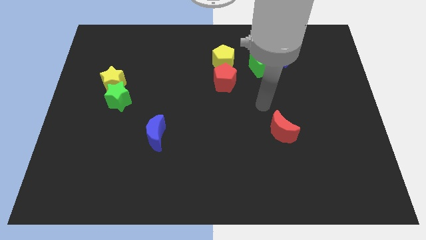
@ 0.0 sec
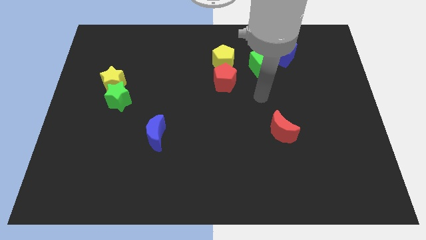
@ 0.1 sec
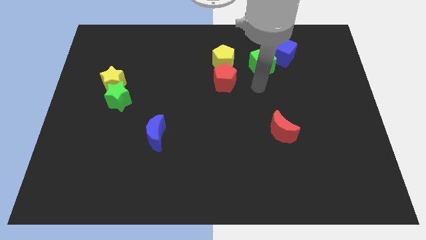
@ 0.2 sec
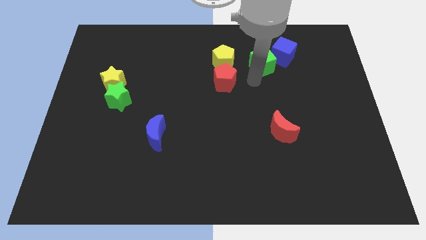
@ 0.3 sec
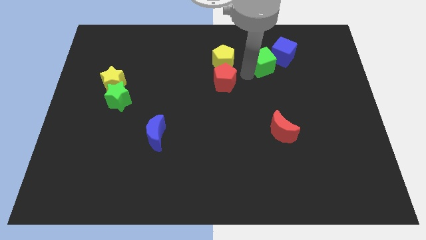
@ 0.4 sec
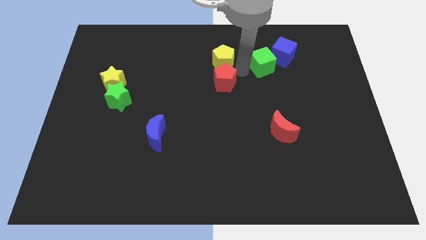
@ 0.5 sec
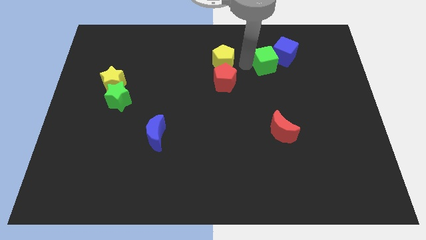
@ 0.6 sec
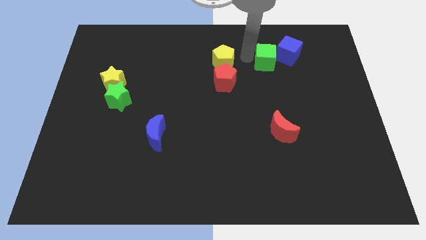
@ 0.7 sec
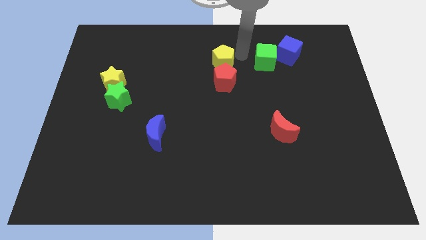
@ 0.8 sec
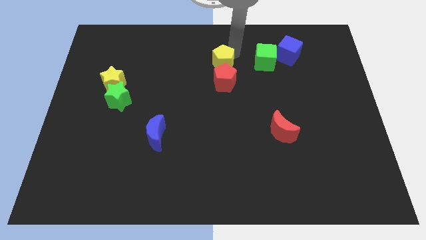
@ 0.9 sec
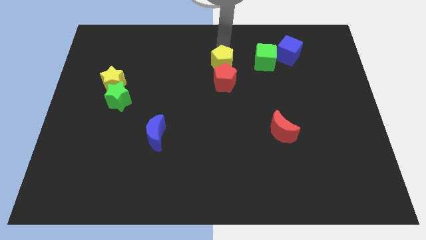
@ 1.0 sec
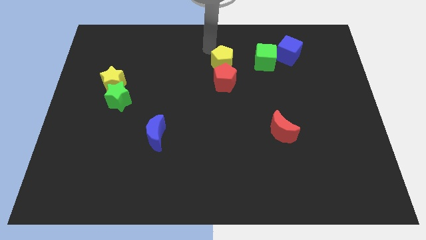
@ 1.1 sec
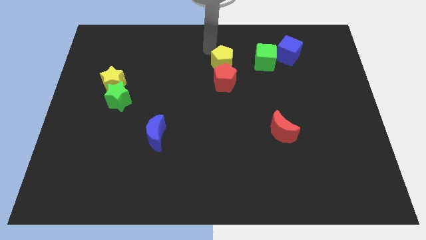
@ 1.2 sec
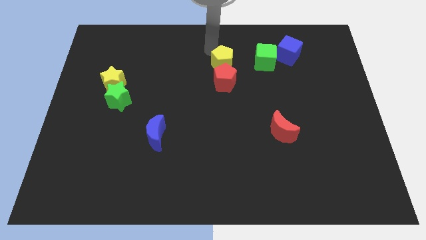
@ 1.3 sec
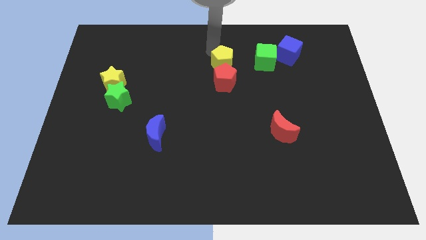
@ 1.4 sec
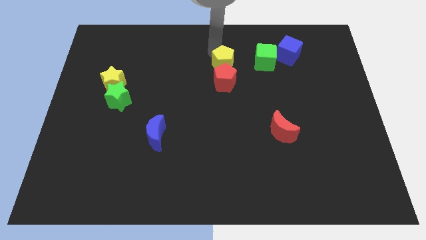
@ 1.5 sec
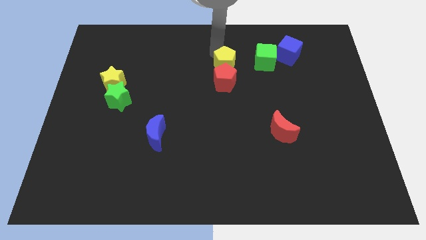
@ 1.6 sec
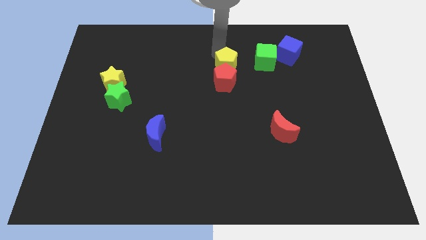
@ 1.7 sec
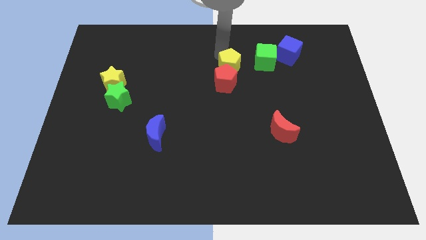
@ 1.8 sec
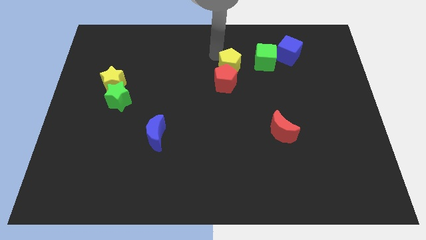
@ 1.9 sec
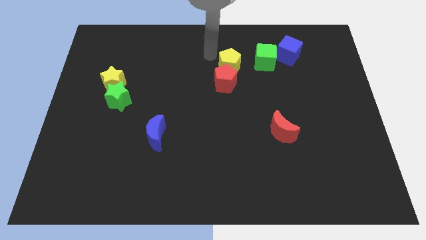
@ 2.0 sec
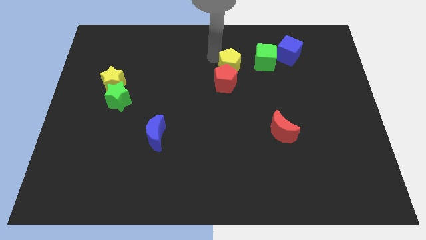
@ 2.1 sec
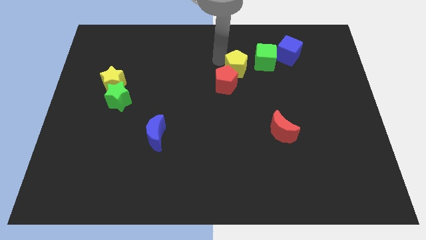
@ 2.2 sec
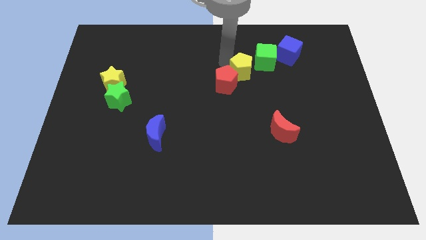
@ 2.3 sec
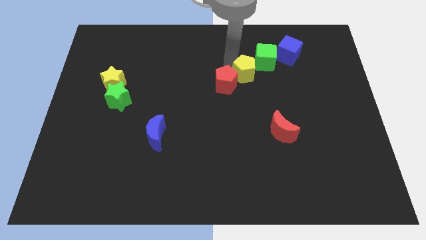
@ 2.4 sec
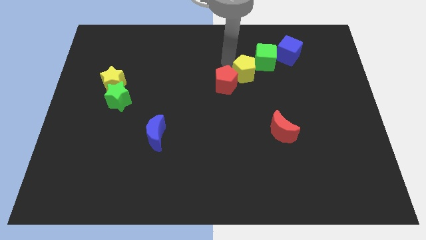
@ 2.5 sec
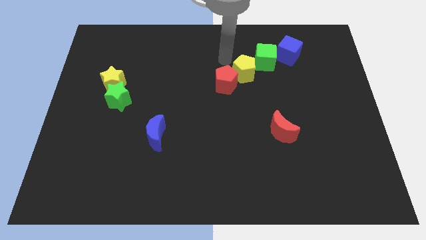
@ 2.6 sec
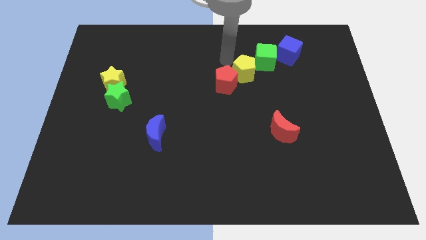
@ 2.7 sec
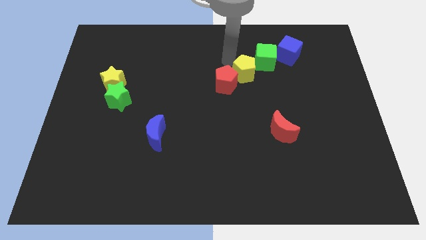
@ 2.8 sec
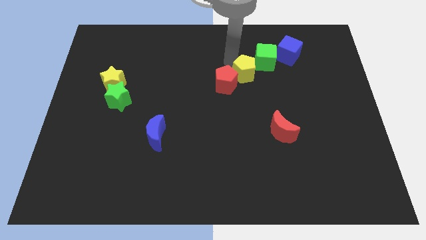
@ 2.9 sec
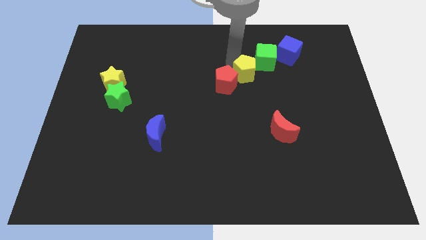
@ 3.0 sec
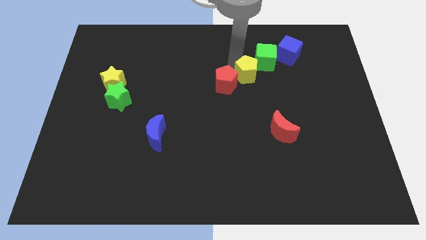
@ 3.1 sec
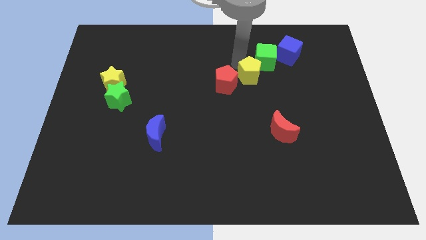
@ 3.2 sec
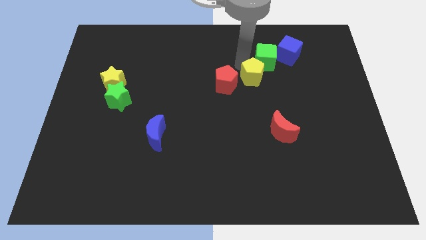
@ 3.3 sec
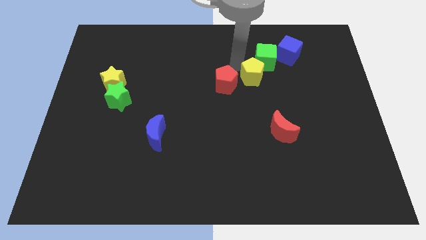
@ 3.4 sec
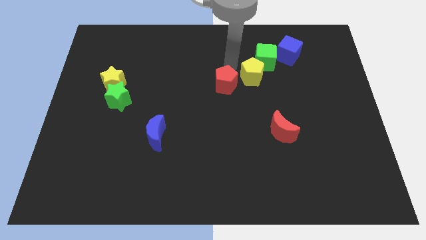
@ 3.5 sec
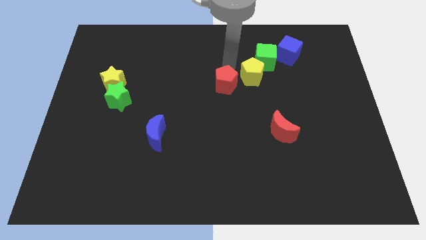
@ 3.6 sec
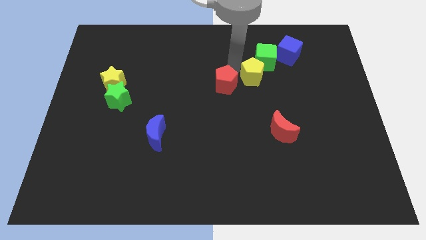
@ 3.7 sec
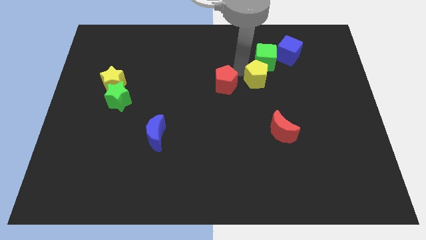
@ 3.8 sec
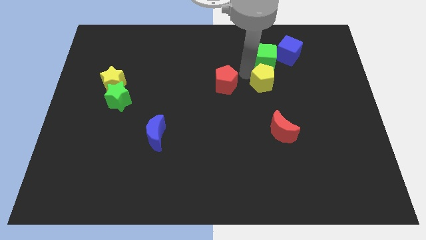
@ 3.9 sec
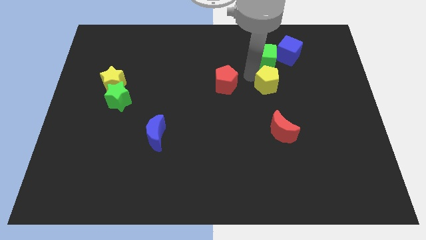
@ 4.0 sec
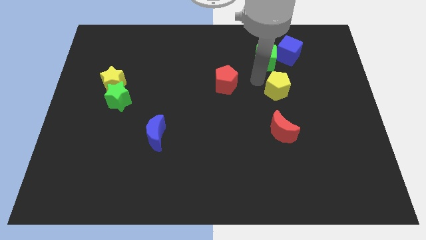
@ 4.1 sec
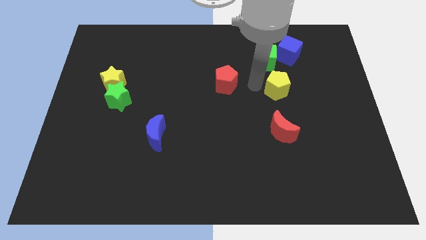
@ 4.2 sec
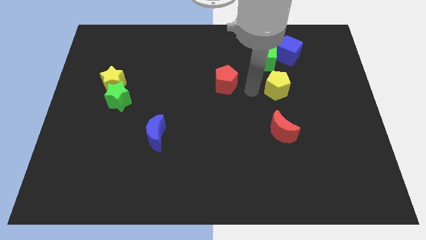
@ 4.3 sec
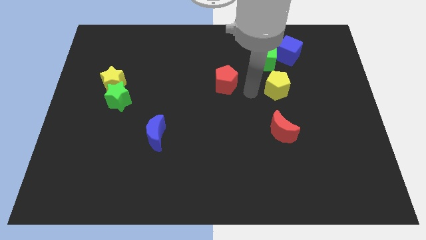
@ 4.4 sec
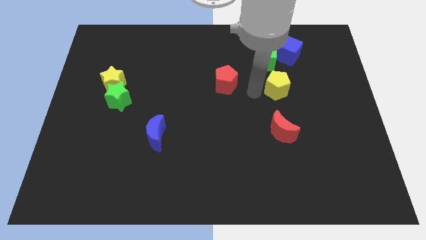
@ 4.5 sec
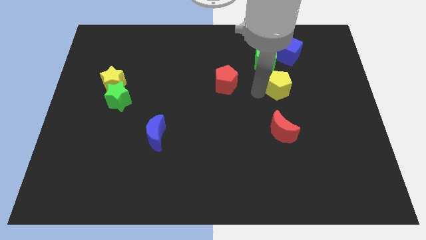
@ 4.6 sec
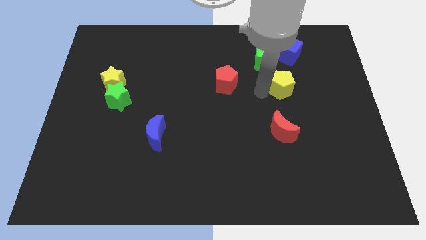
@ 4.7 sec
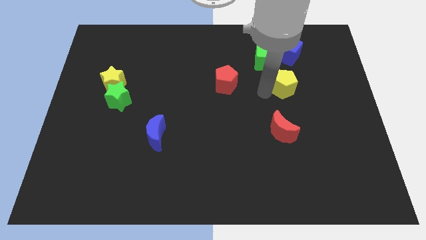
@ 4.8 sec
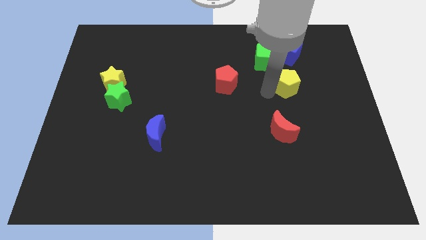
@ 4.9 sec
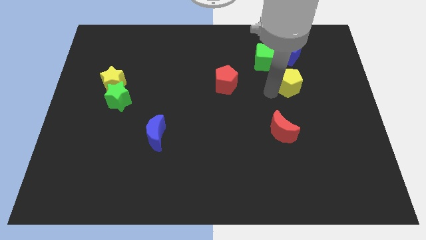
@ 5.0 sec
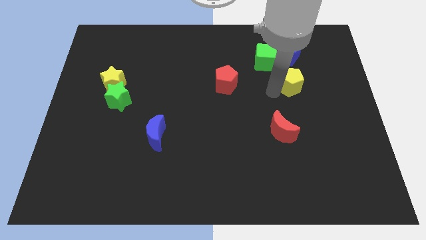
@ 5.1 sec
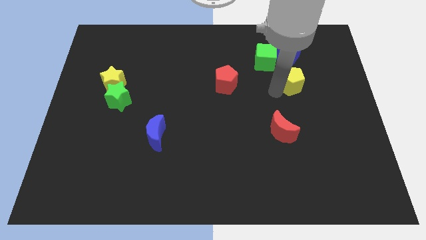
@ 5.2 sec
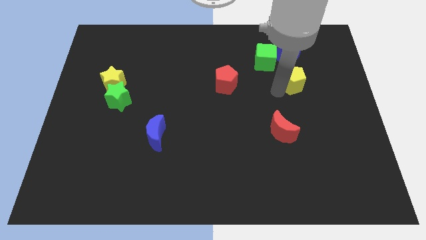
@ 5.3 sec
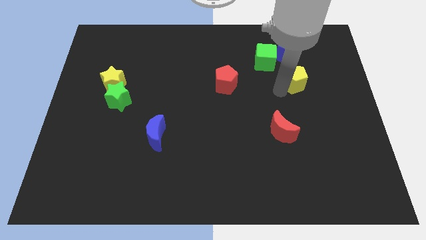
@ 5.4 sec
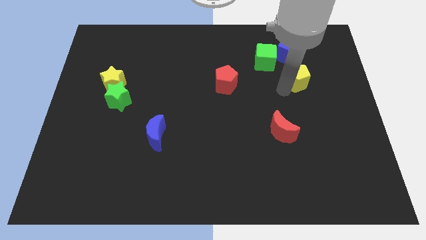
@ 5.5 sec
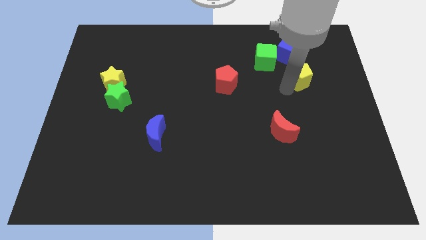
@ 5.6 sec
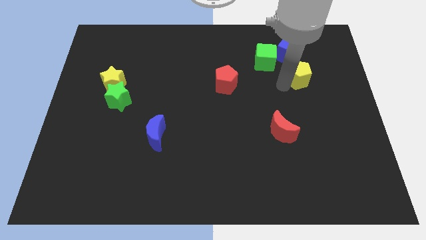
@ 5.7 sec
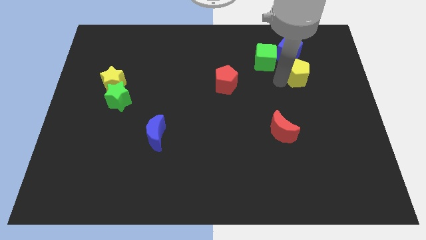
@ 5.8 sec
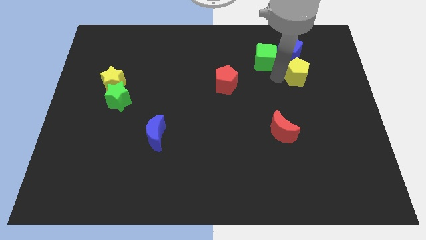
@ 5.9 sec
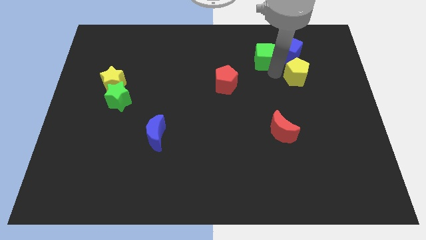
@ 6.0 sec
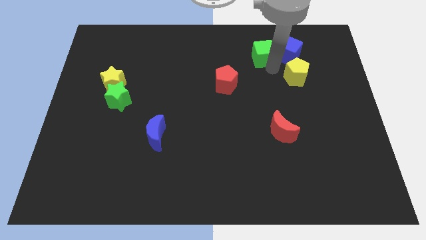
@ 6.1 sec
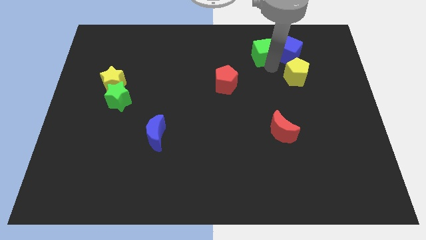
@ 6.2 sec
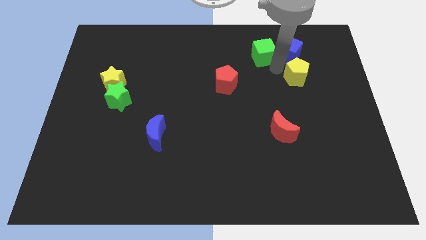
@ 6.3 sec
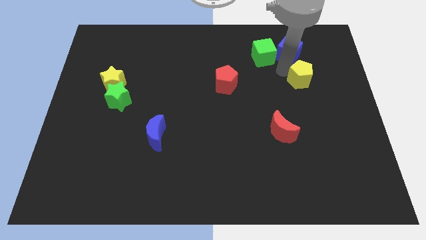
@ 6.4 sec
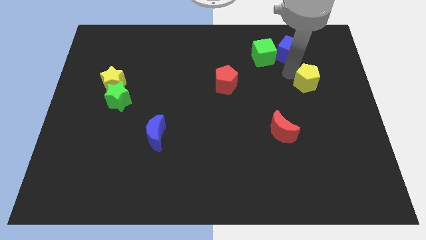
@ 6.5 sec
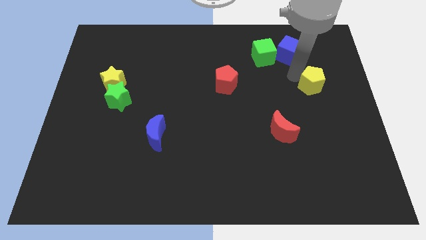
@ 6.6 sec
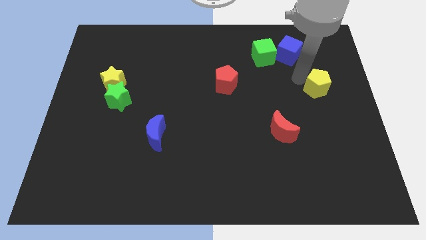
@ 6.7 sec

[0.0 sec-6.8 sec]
slide the yellow pentagon to the center right

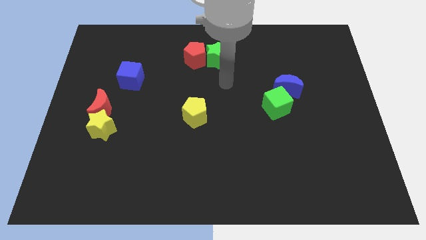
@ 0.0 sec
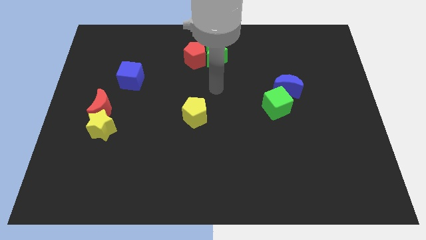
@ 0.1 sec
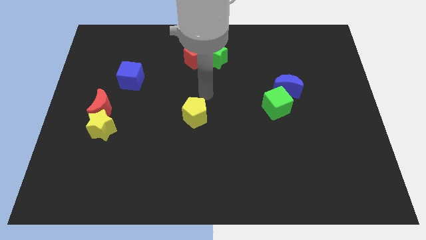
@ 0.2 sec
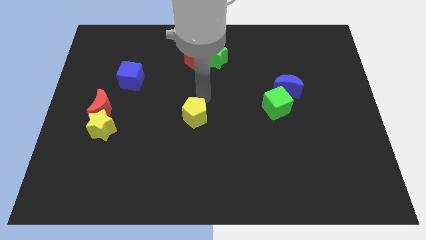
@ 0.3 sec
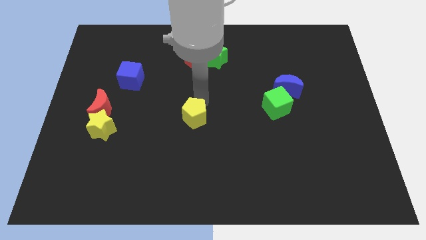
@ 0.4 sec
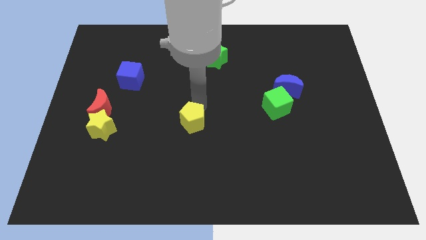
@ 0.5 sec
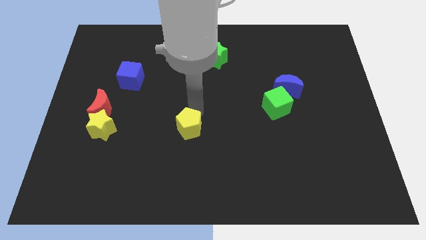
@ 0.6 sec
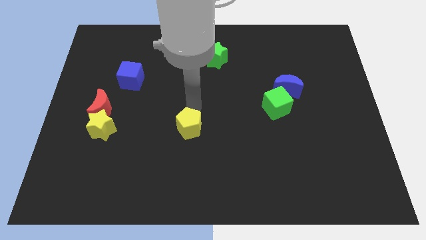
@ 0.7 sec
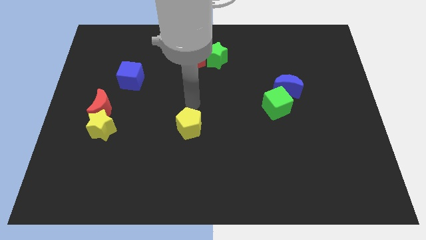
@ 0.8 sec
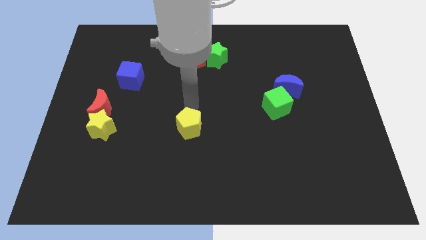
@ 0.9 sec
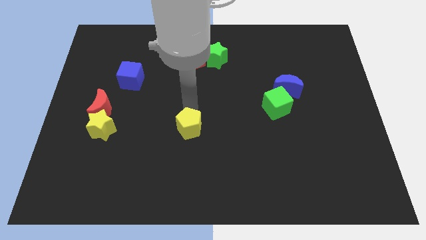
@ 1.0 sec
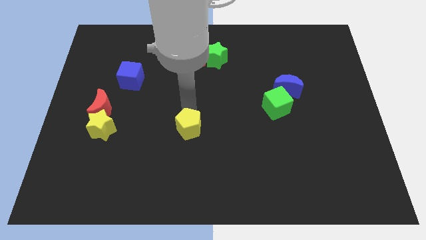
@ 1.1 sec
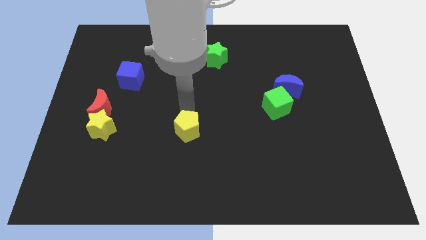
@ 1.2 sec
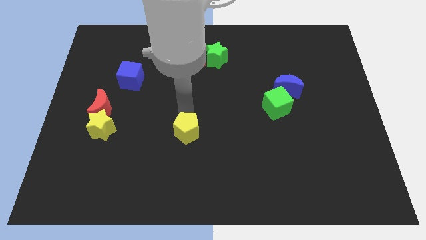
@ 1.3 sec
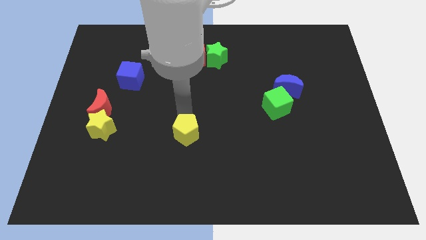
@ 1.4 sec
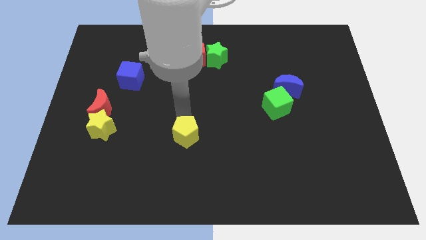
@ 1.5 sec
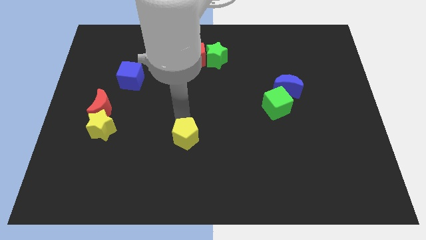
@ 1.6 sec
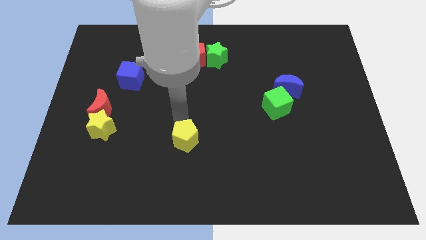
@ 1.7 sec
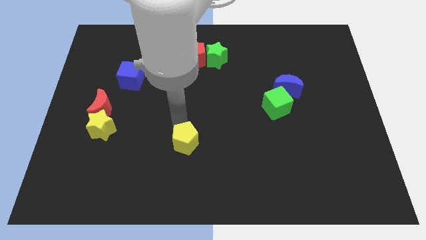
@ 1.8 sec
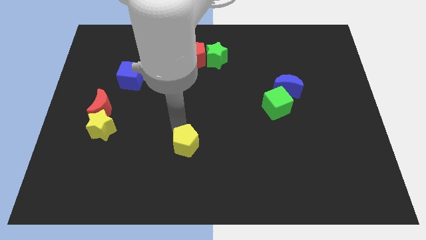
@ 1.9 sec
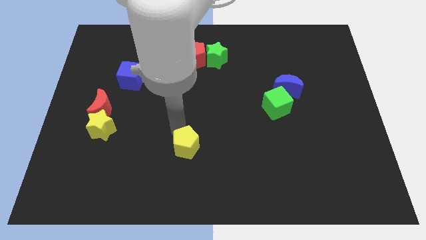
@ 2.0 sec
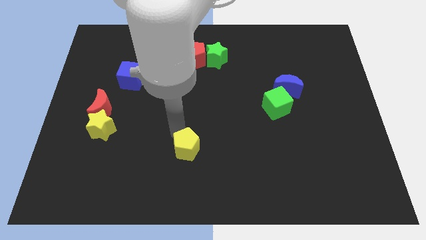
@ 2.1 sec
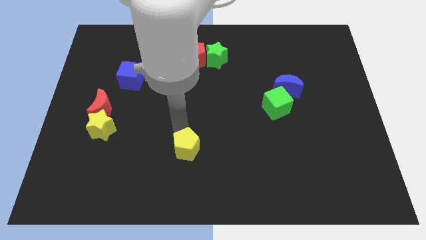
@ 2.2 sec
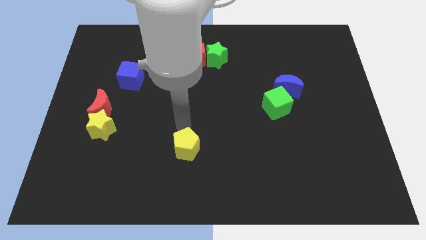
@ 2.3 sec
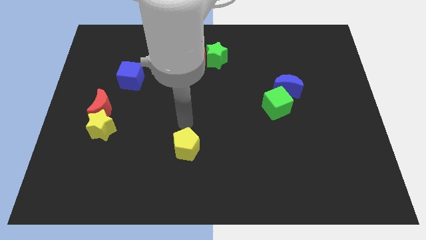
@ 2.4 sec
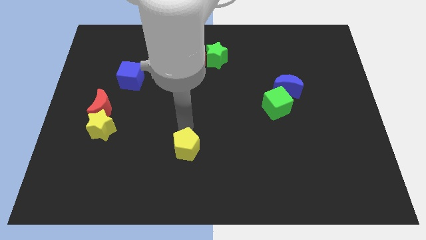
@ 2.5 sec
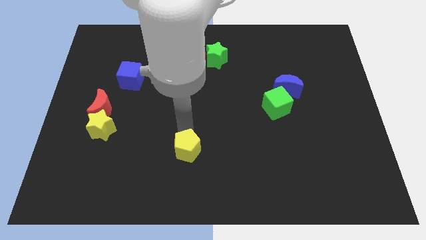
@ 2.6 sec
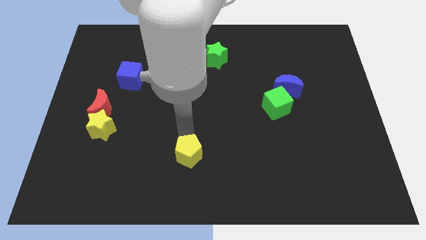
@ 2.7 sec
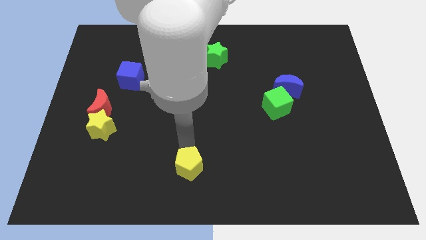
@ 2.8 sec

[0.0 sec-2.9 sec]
move the yellow pentagon to the bottom side
